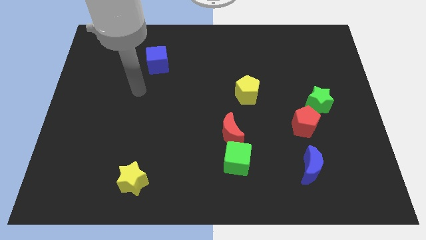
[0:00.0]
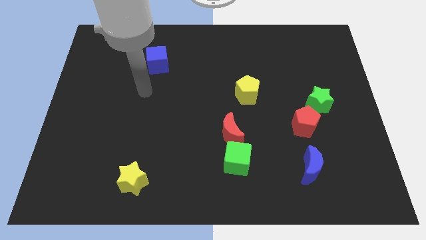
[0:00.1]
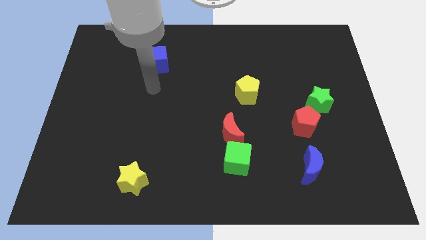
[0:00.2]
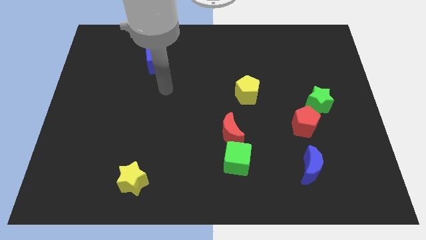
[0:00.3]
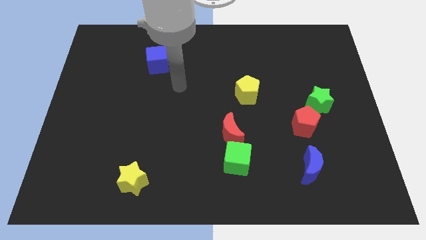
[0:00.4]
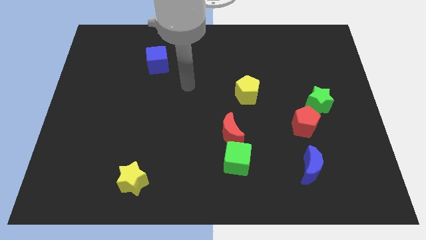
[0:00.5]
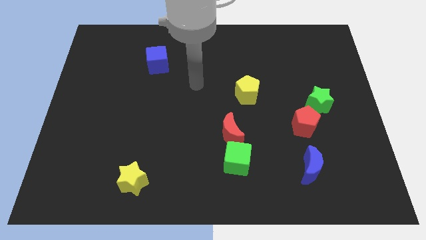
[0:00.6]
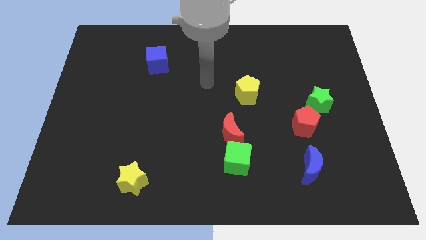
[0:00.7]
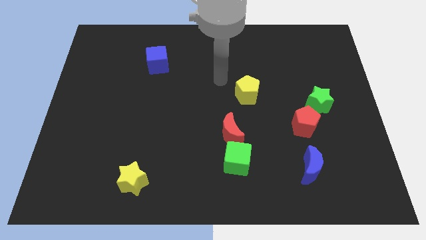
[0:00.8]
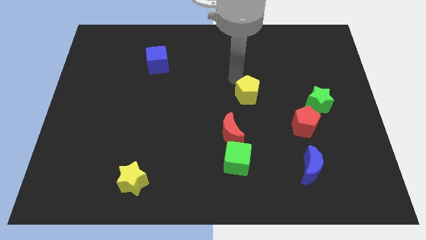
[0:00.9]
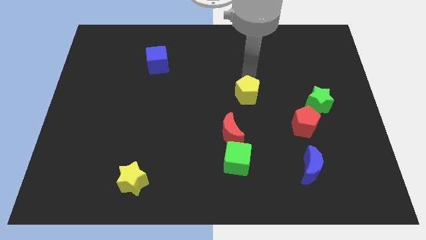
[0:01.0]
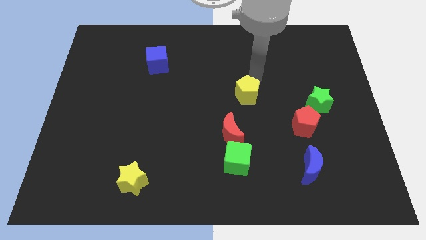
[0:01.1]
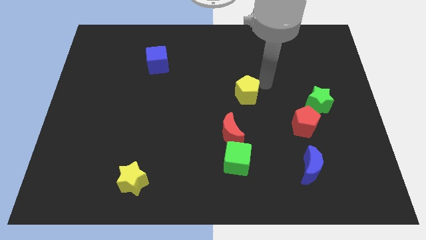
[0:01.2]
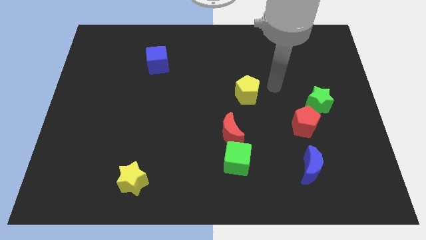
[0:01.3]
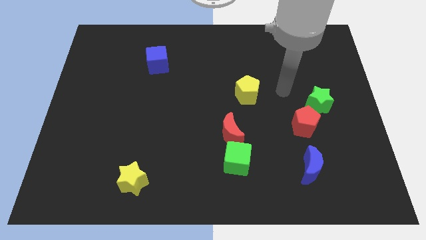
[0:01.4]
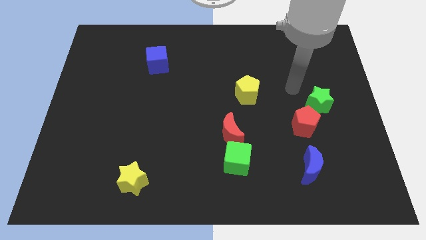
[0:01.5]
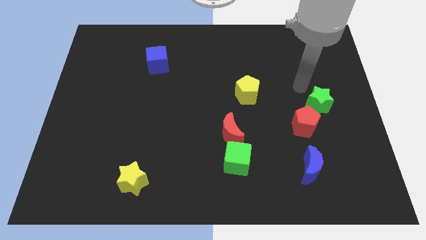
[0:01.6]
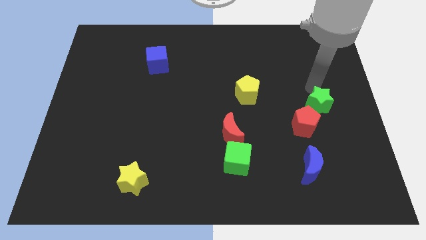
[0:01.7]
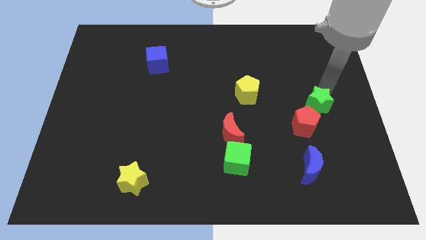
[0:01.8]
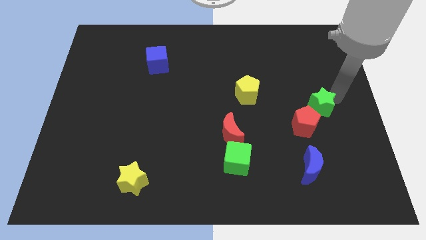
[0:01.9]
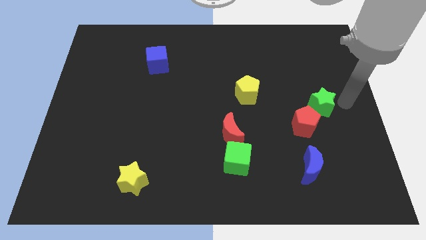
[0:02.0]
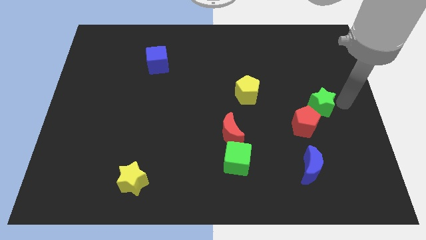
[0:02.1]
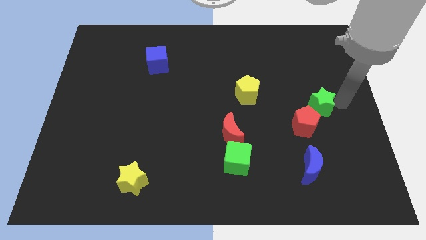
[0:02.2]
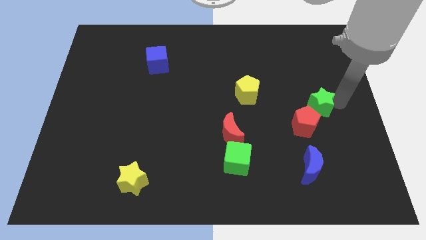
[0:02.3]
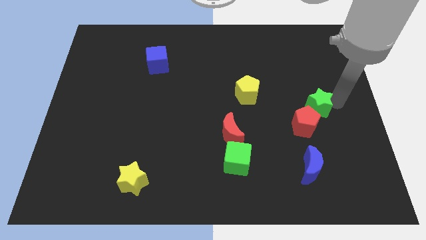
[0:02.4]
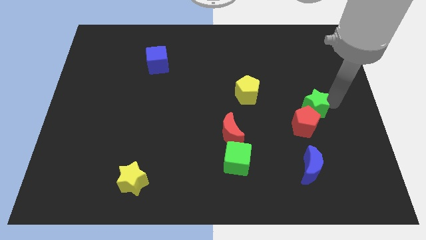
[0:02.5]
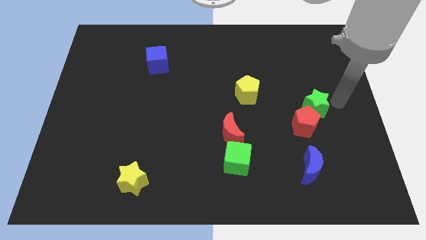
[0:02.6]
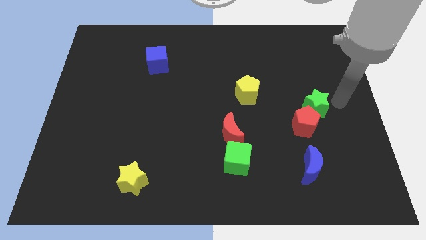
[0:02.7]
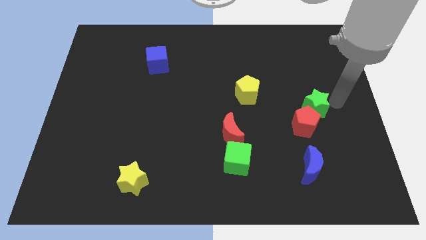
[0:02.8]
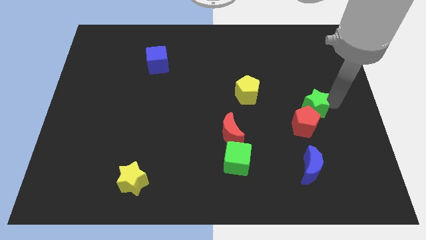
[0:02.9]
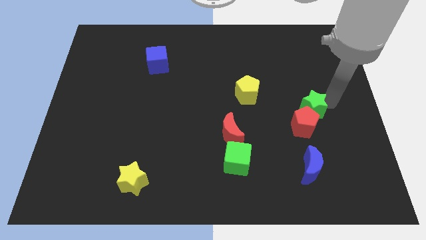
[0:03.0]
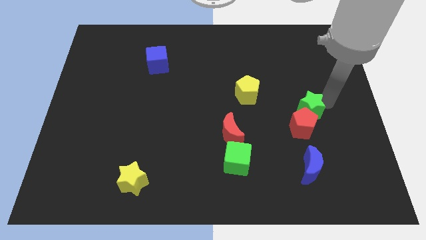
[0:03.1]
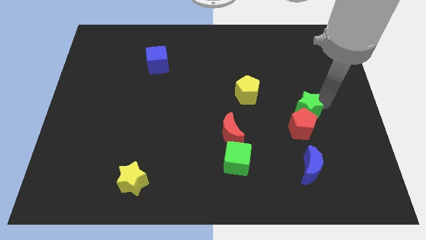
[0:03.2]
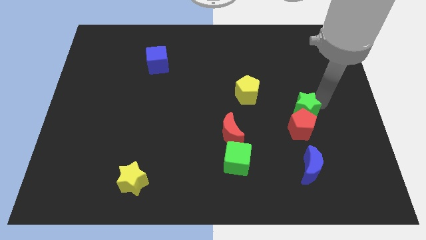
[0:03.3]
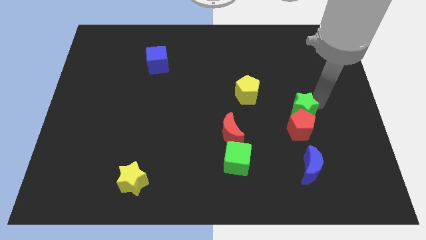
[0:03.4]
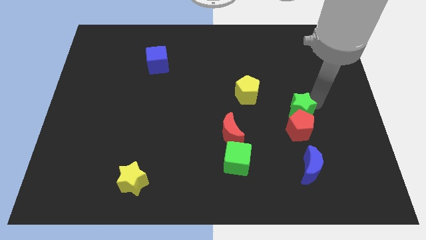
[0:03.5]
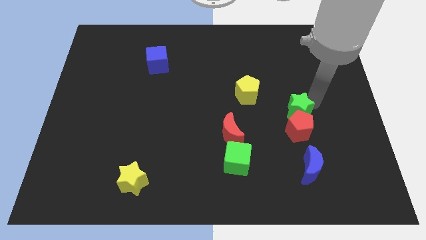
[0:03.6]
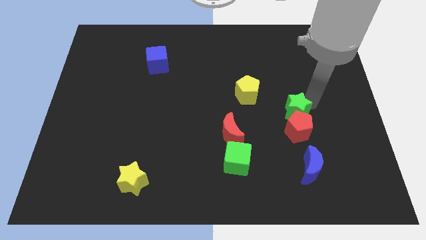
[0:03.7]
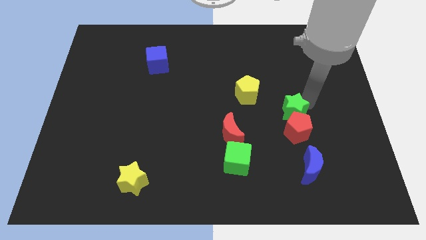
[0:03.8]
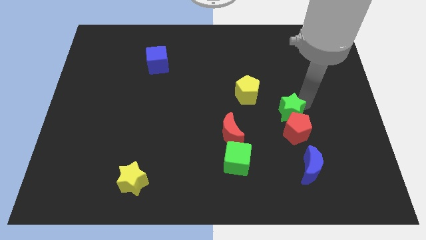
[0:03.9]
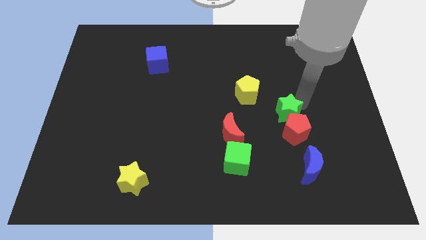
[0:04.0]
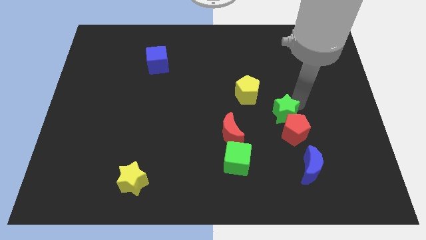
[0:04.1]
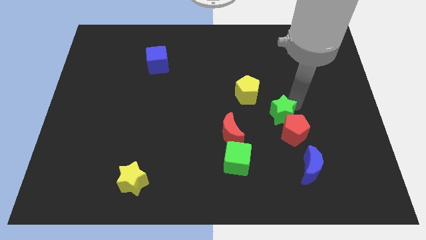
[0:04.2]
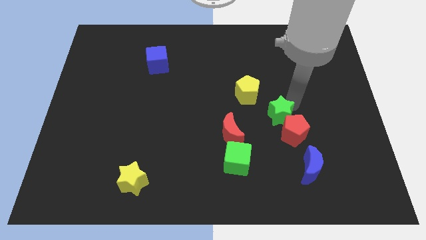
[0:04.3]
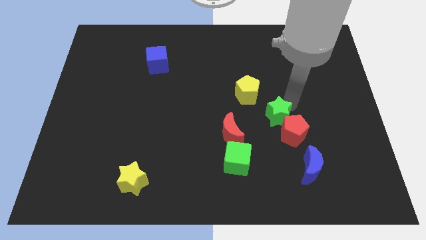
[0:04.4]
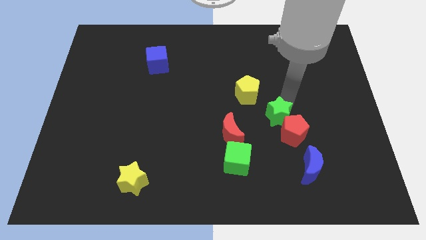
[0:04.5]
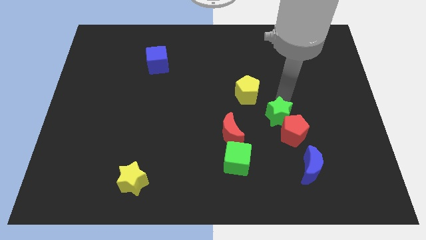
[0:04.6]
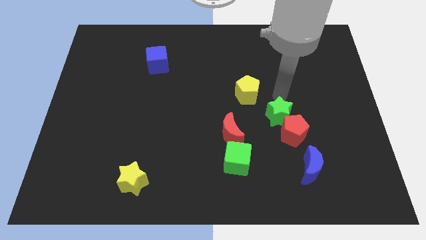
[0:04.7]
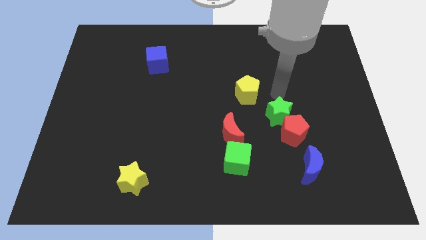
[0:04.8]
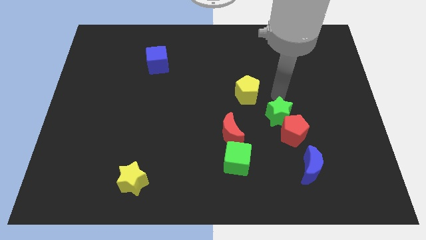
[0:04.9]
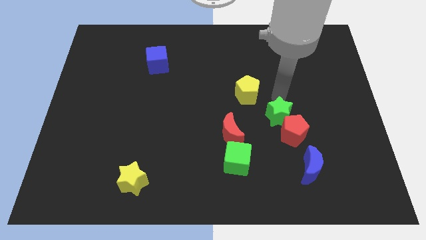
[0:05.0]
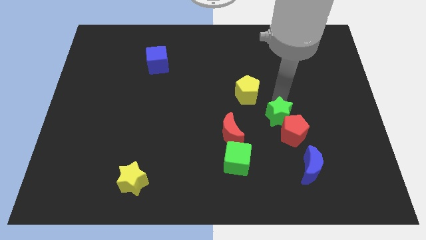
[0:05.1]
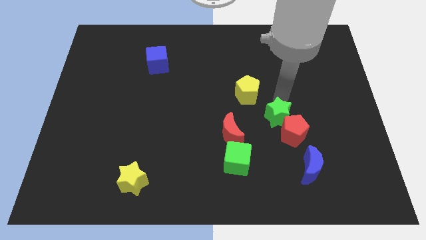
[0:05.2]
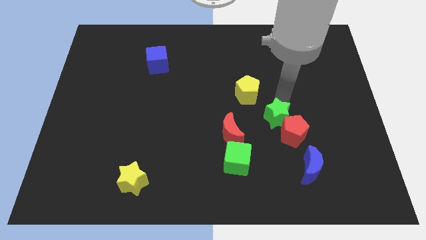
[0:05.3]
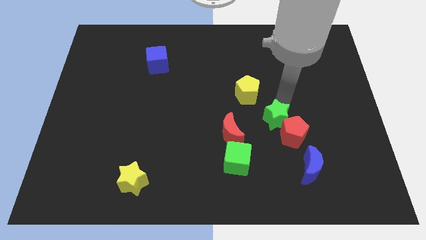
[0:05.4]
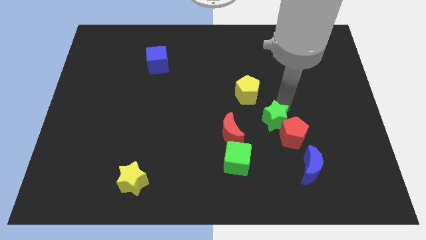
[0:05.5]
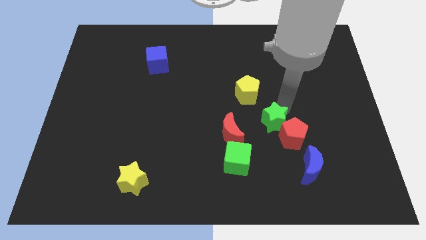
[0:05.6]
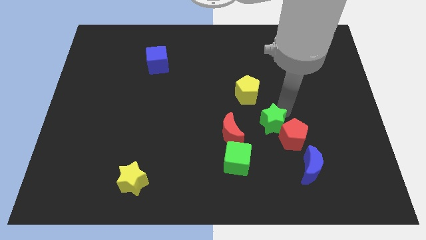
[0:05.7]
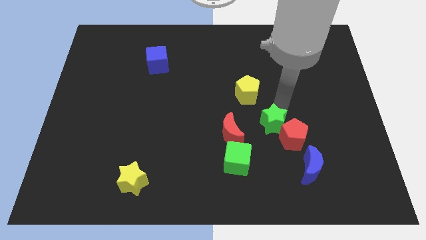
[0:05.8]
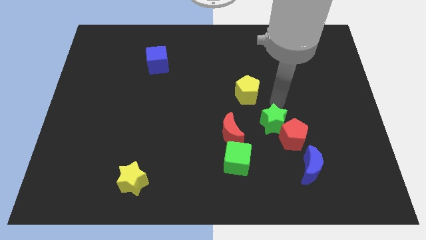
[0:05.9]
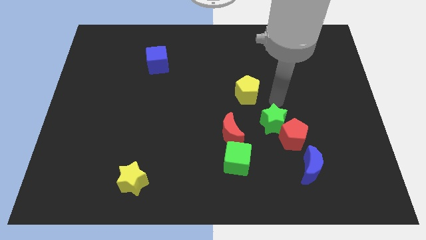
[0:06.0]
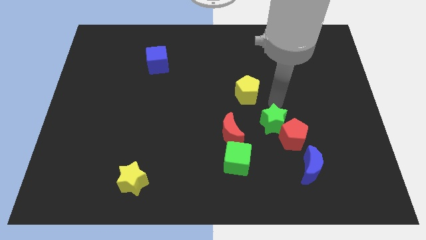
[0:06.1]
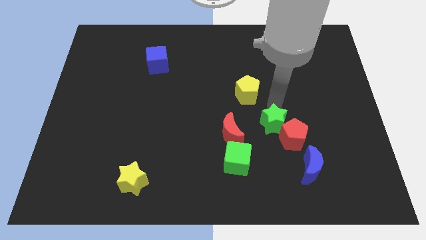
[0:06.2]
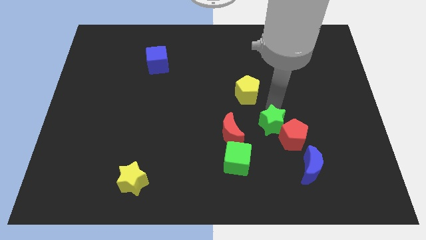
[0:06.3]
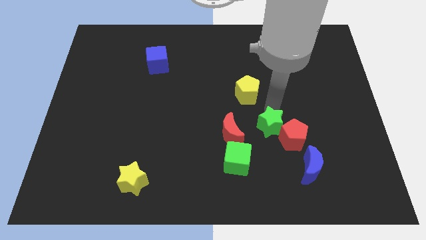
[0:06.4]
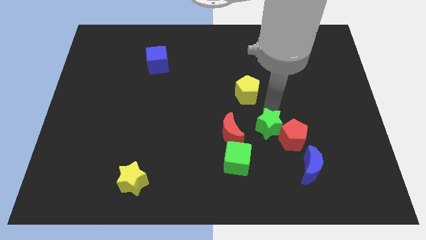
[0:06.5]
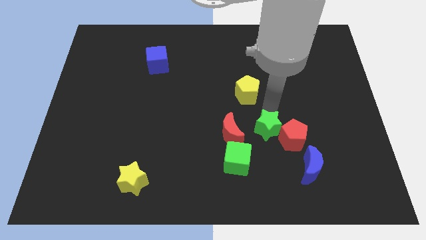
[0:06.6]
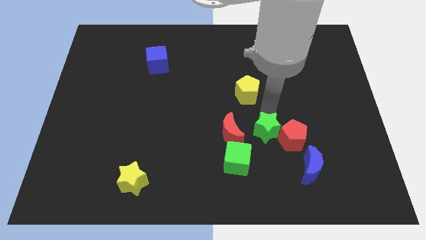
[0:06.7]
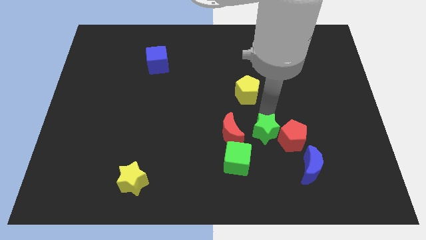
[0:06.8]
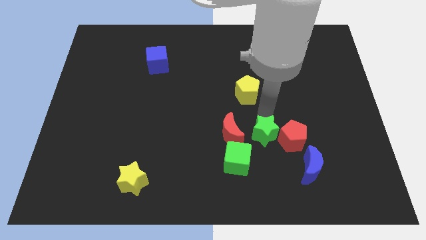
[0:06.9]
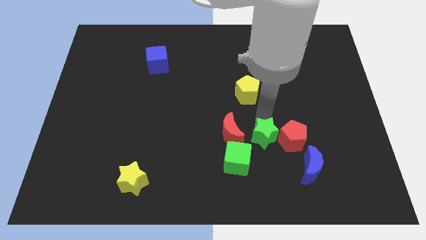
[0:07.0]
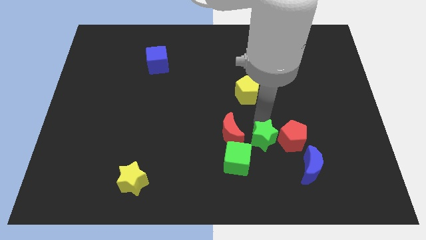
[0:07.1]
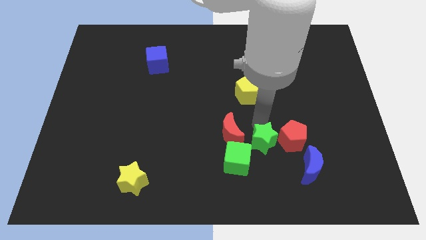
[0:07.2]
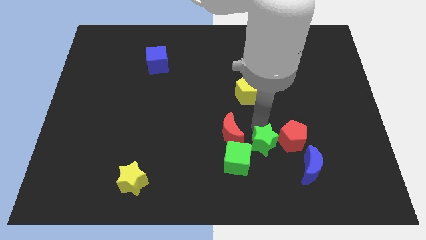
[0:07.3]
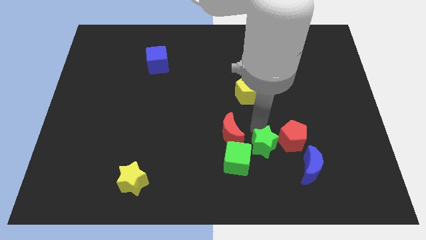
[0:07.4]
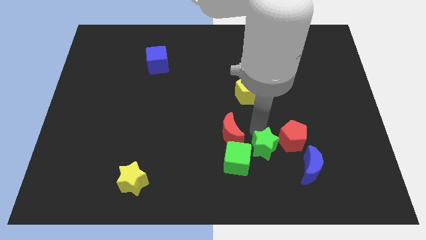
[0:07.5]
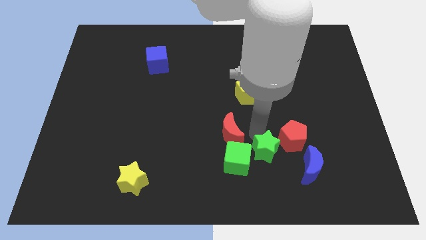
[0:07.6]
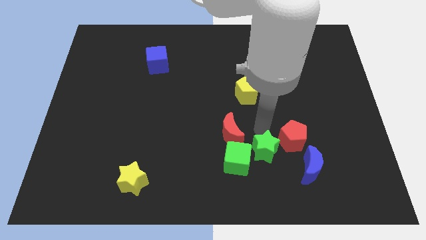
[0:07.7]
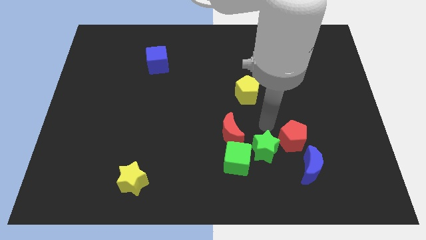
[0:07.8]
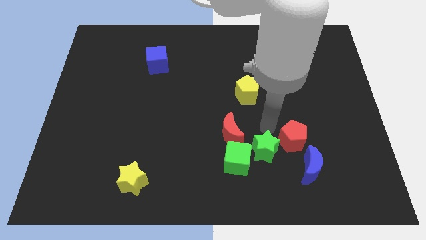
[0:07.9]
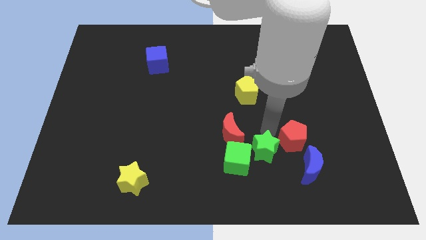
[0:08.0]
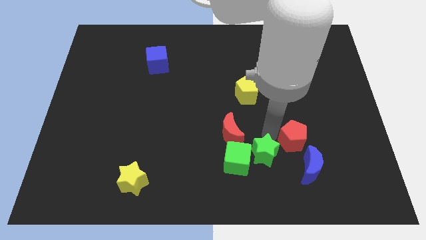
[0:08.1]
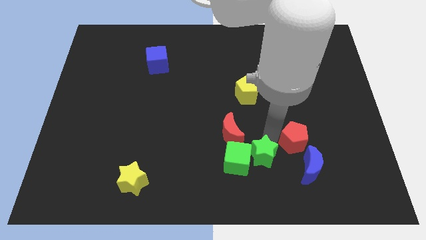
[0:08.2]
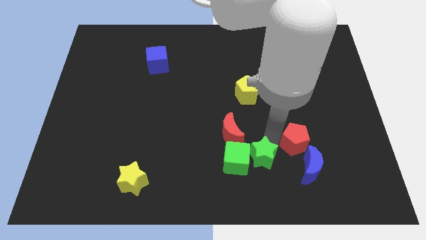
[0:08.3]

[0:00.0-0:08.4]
put the green star diagonally down and to the right of the green cube
